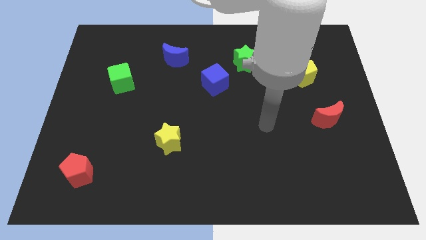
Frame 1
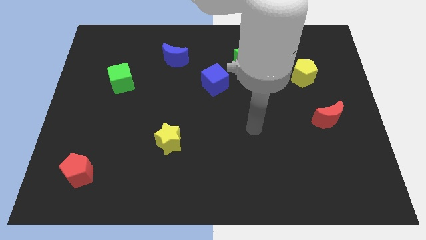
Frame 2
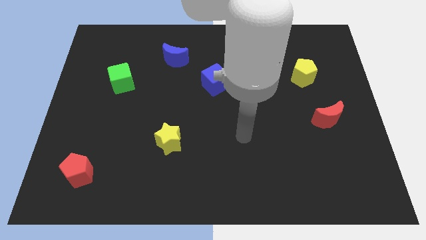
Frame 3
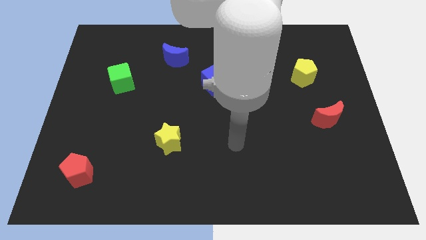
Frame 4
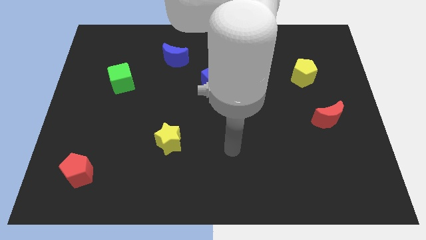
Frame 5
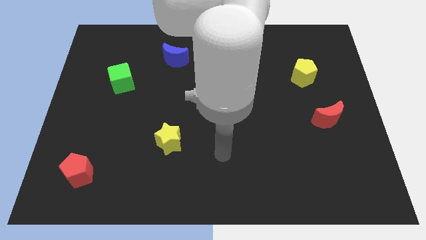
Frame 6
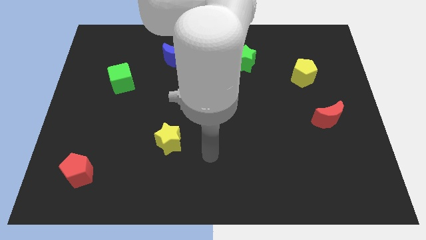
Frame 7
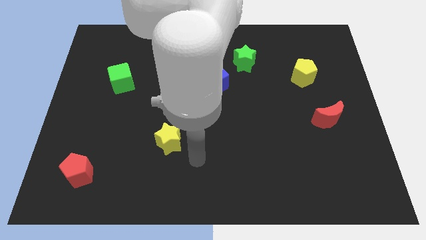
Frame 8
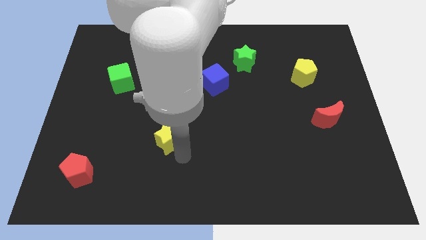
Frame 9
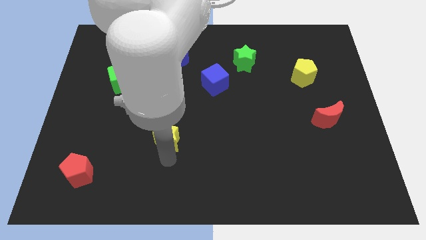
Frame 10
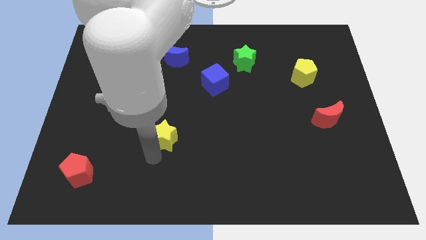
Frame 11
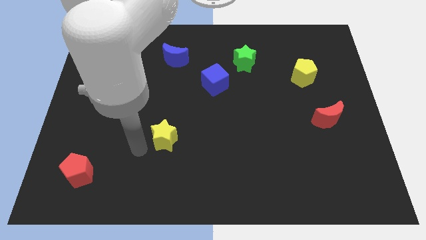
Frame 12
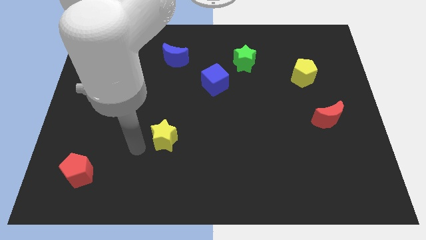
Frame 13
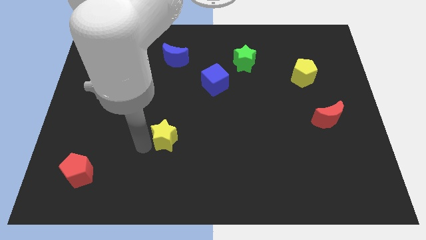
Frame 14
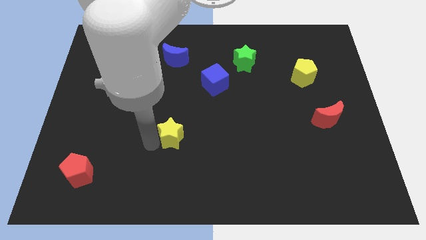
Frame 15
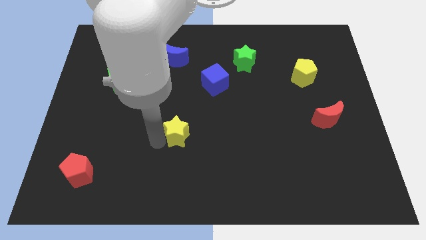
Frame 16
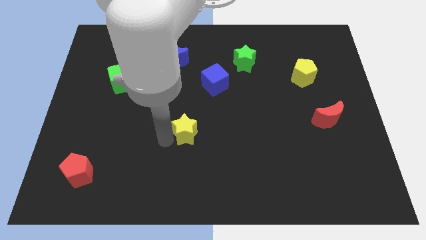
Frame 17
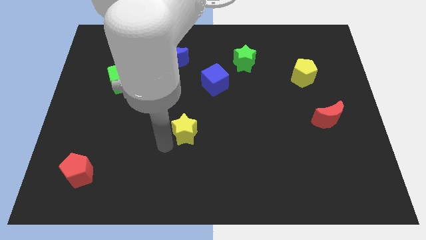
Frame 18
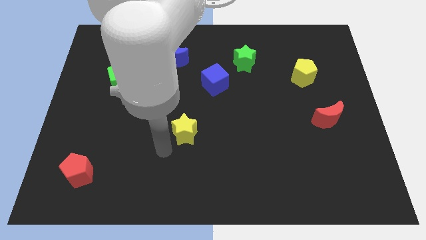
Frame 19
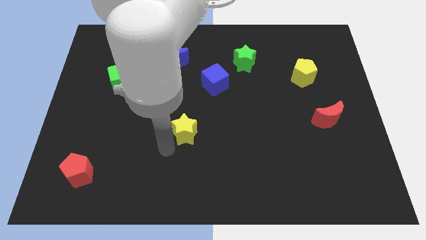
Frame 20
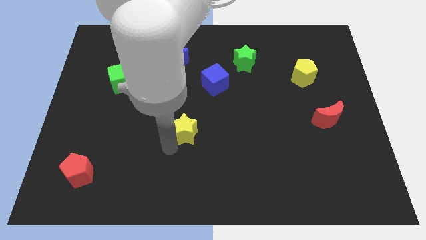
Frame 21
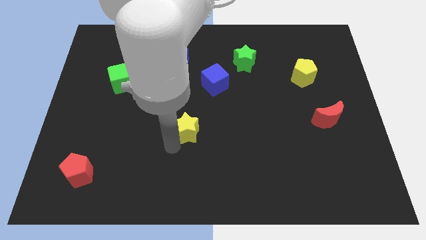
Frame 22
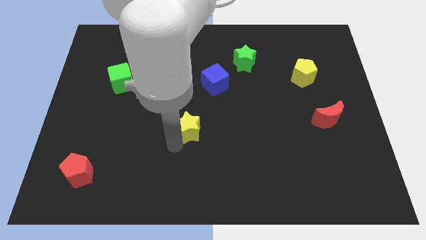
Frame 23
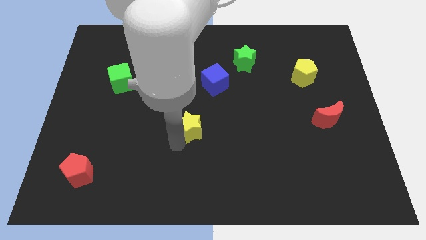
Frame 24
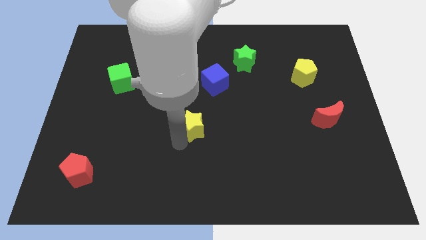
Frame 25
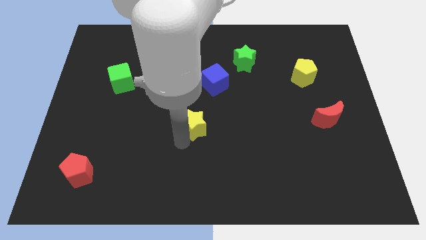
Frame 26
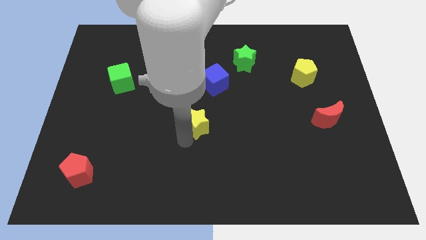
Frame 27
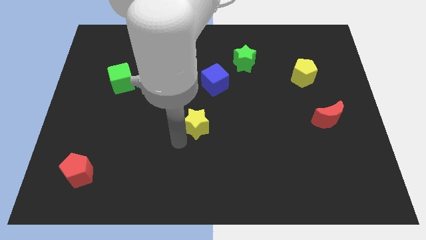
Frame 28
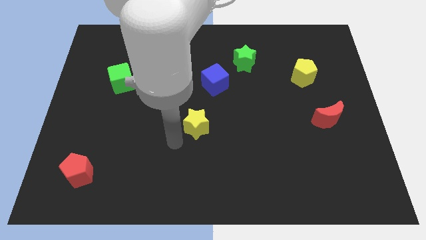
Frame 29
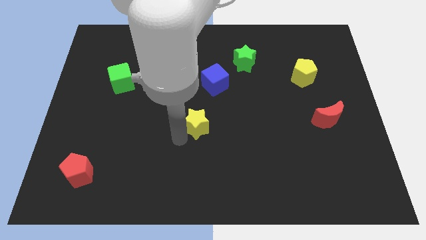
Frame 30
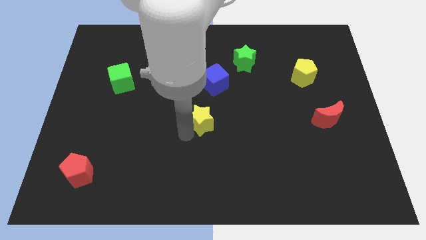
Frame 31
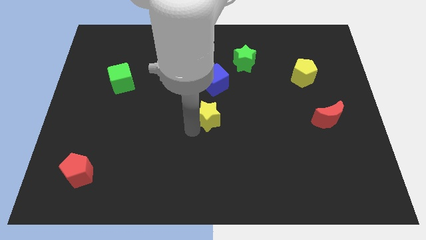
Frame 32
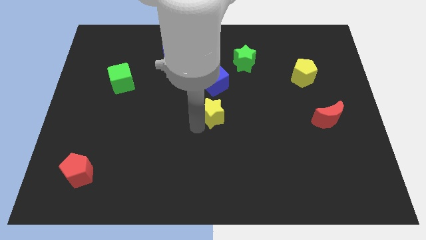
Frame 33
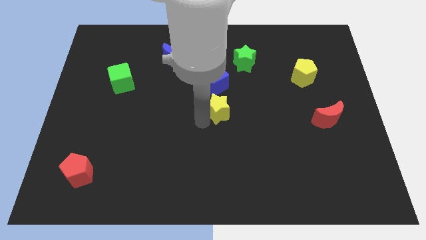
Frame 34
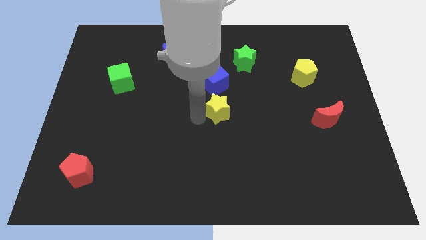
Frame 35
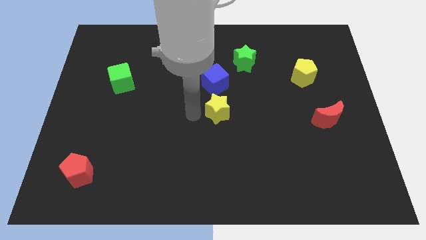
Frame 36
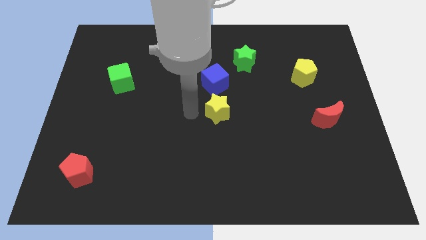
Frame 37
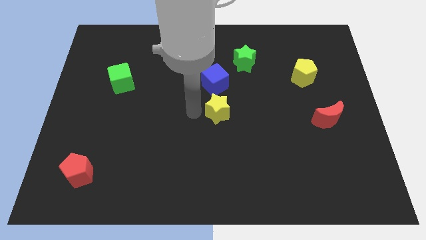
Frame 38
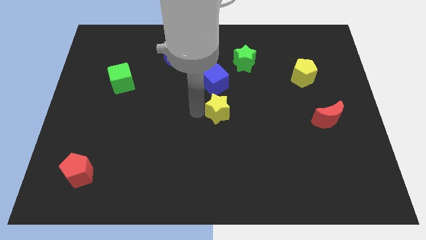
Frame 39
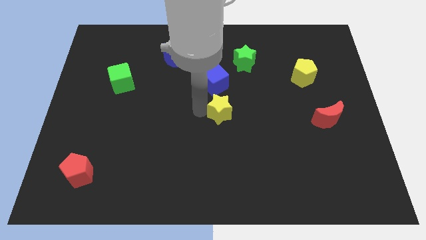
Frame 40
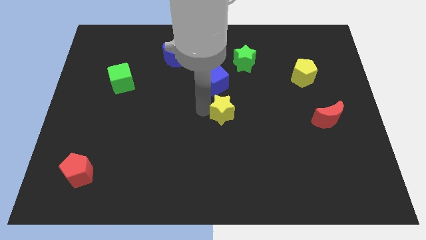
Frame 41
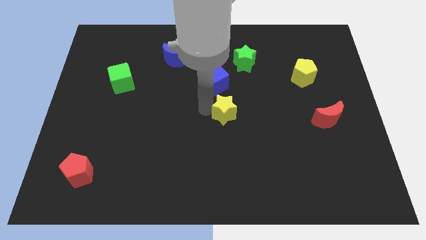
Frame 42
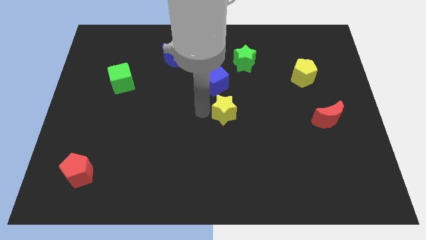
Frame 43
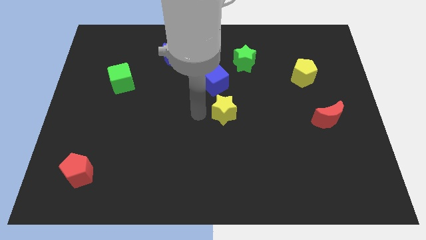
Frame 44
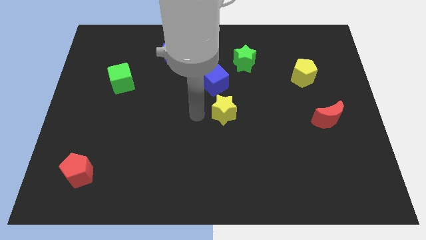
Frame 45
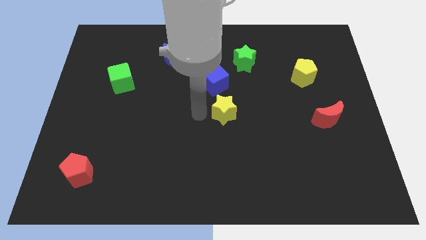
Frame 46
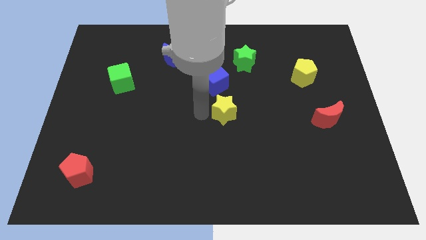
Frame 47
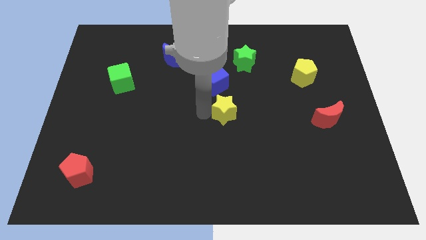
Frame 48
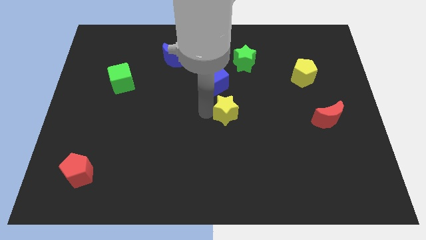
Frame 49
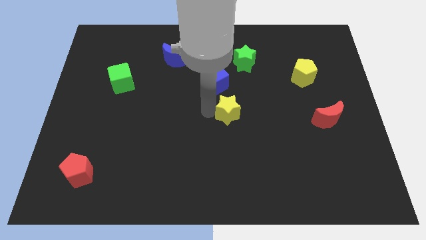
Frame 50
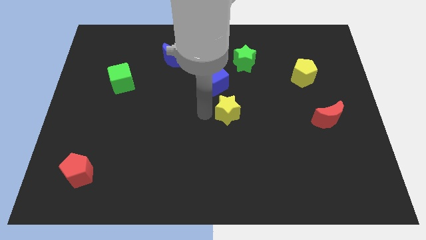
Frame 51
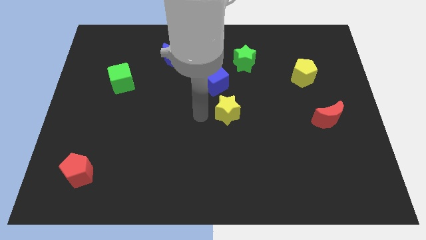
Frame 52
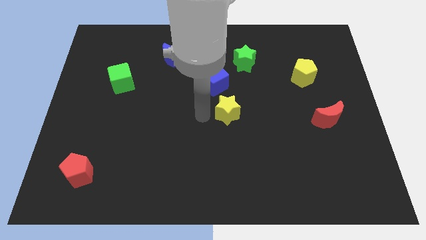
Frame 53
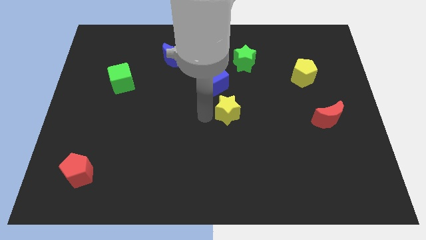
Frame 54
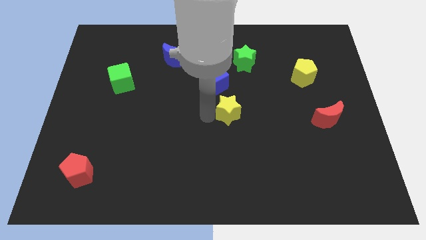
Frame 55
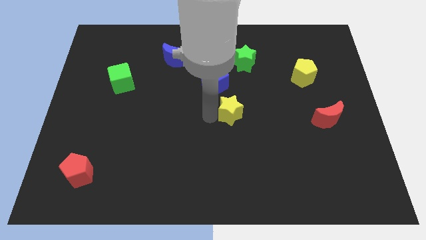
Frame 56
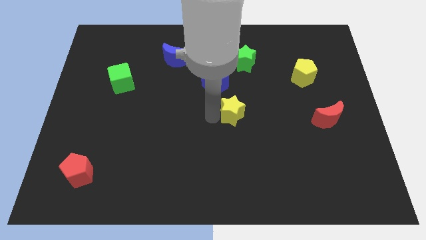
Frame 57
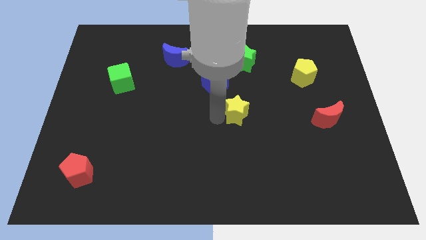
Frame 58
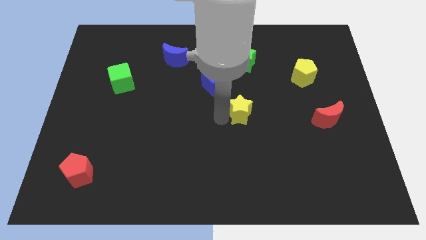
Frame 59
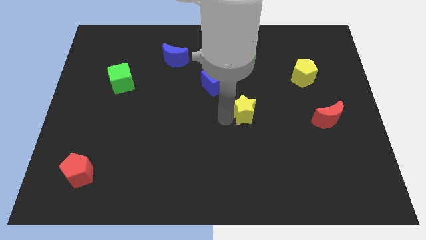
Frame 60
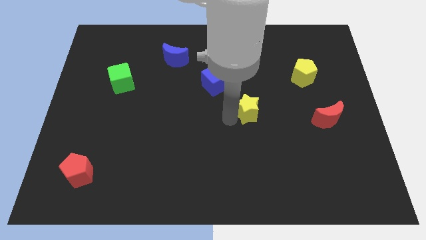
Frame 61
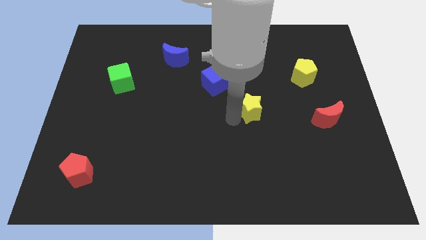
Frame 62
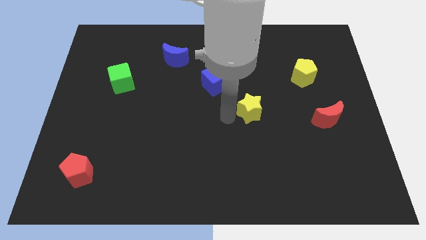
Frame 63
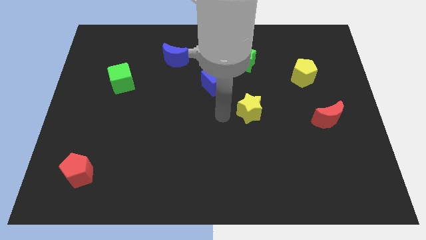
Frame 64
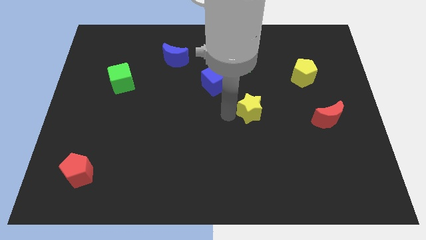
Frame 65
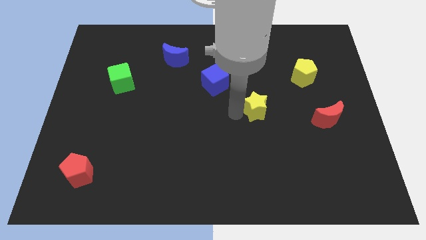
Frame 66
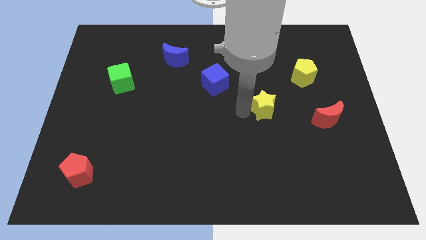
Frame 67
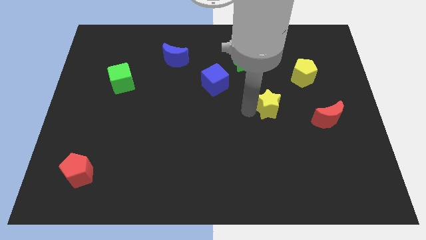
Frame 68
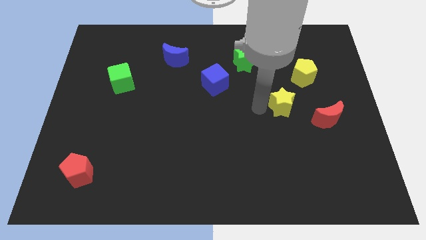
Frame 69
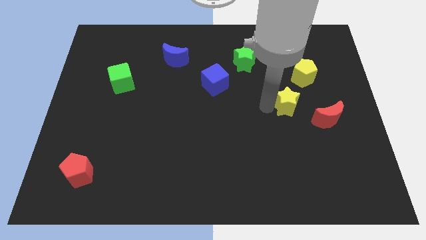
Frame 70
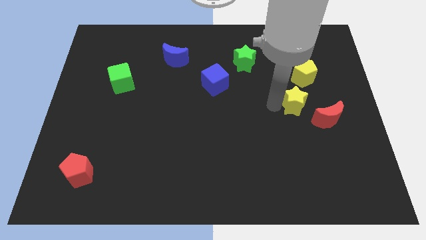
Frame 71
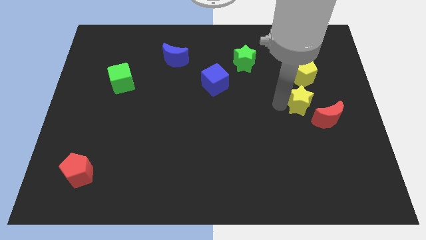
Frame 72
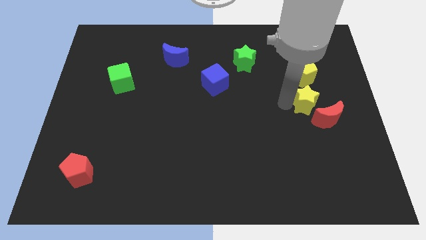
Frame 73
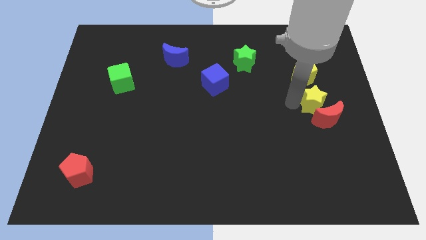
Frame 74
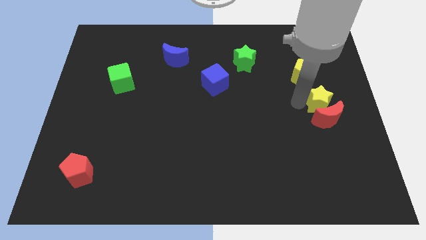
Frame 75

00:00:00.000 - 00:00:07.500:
push the yellow star to the right side
